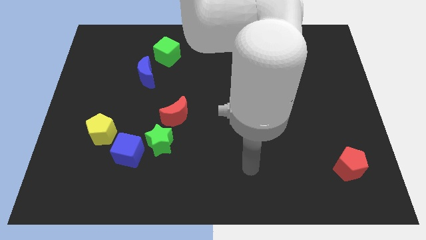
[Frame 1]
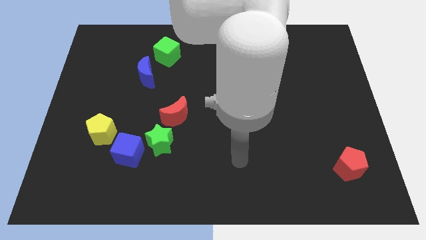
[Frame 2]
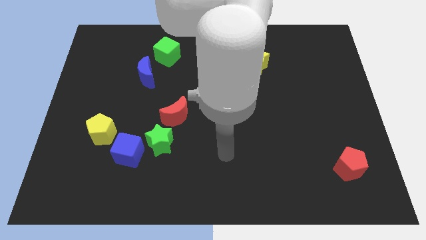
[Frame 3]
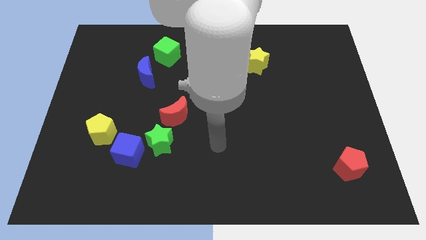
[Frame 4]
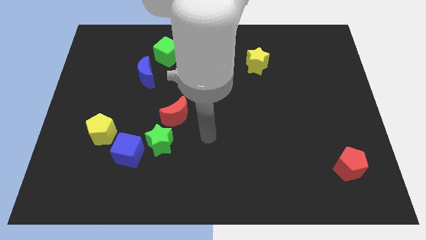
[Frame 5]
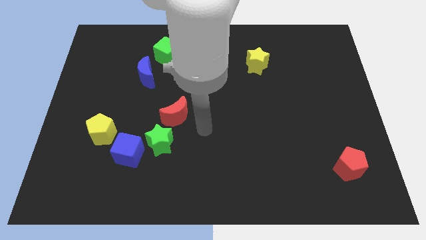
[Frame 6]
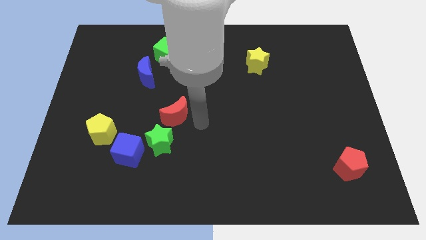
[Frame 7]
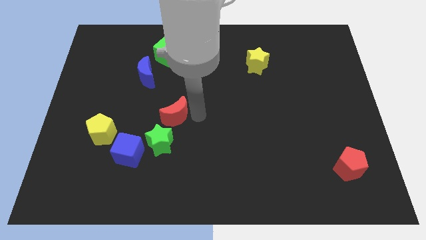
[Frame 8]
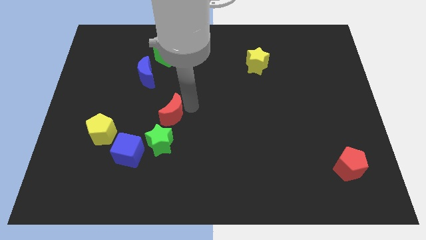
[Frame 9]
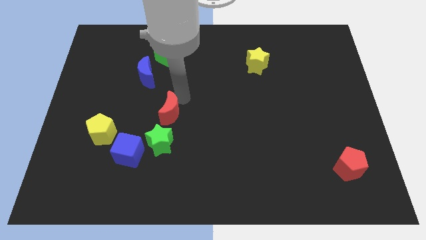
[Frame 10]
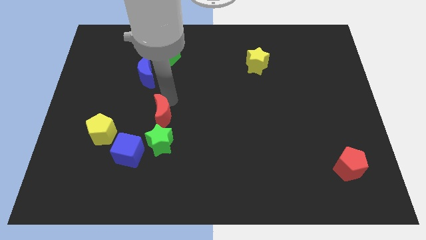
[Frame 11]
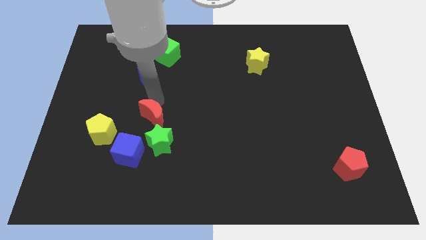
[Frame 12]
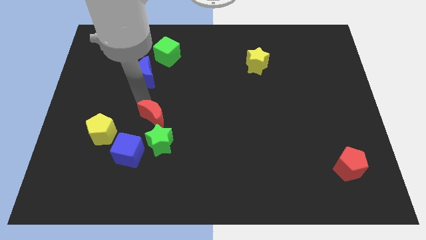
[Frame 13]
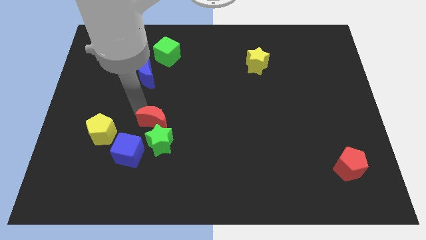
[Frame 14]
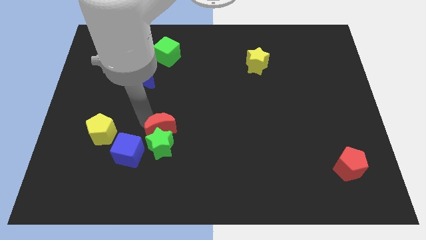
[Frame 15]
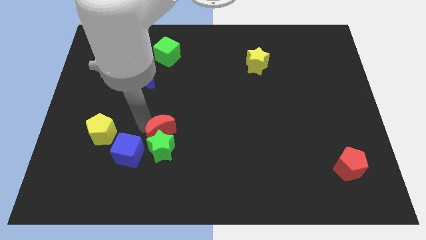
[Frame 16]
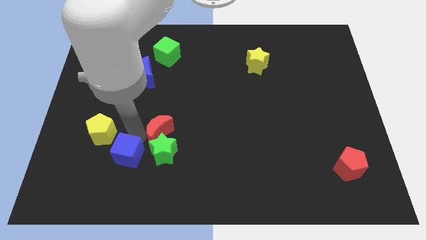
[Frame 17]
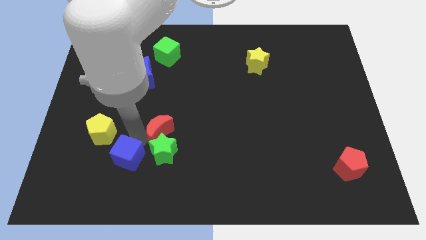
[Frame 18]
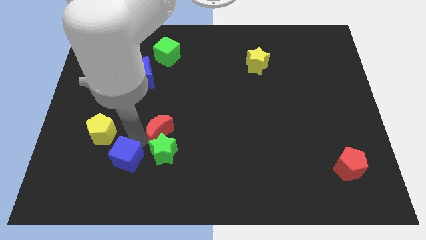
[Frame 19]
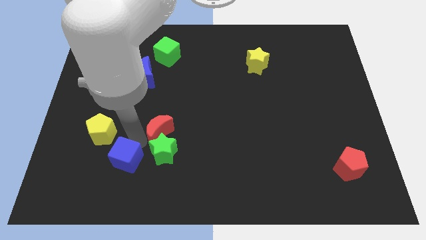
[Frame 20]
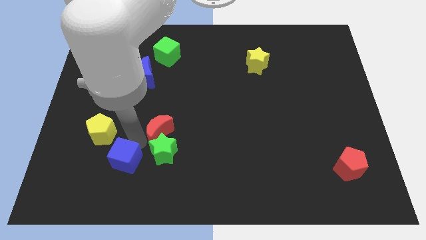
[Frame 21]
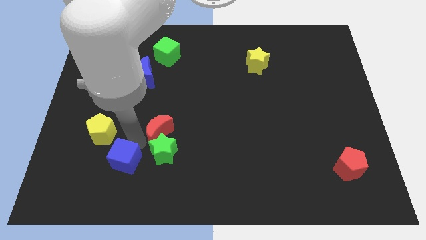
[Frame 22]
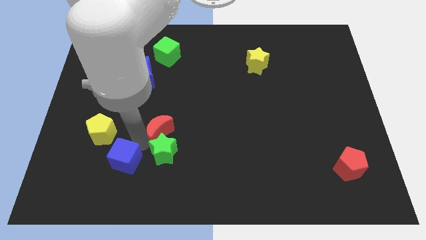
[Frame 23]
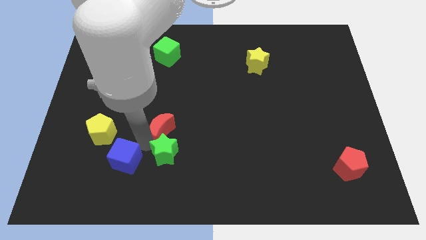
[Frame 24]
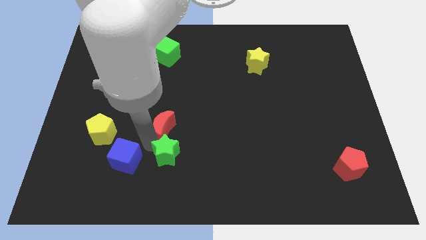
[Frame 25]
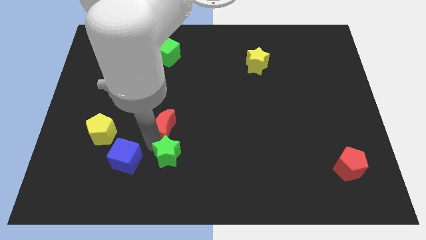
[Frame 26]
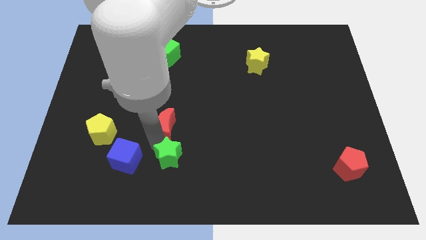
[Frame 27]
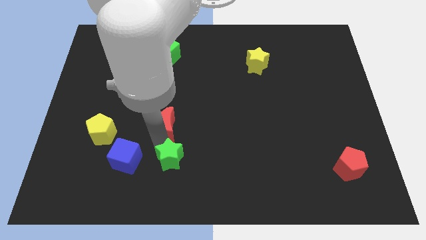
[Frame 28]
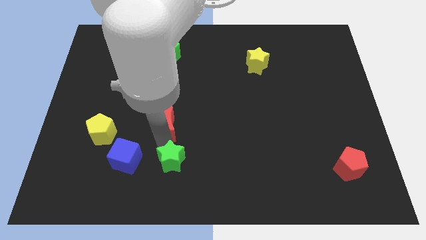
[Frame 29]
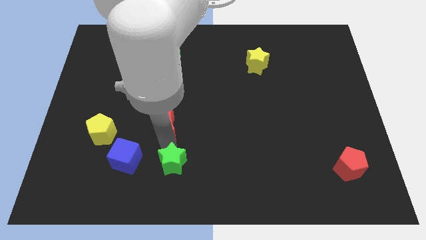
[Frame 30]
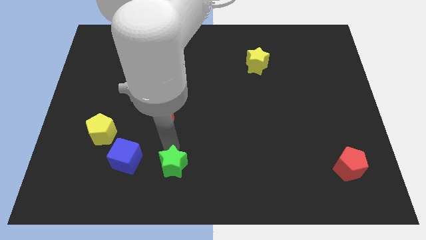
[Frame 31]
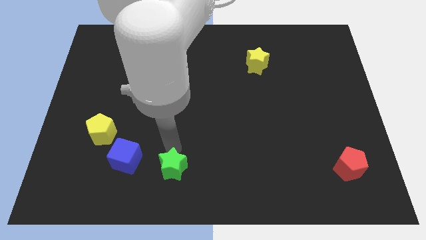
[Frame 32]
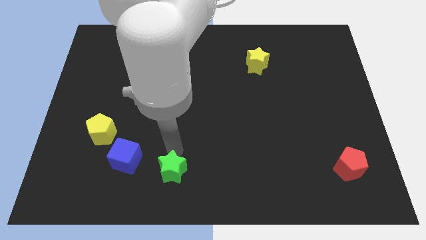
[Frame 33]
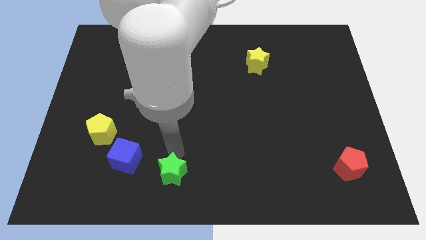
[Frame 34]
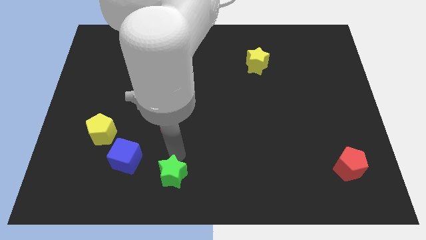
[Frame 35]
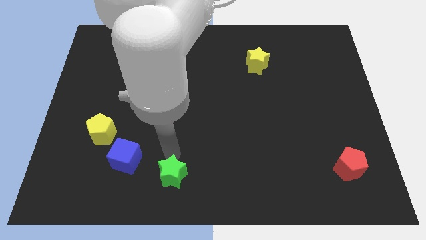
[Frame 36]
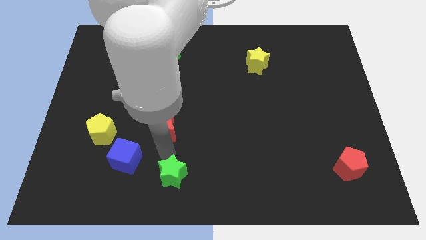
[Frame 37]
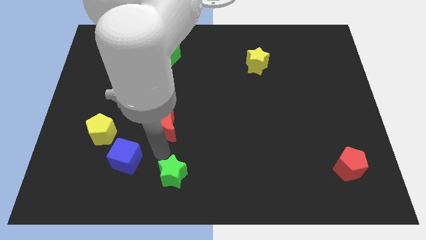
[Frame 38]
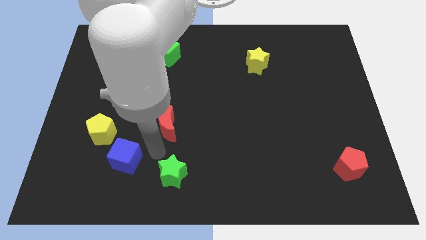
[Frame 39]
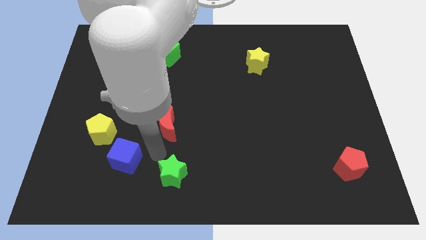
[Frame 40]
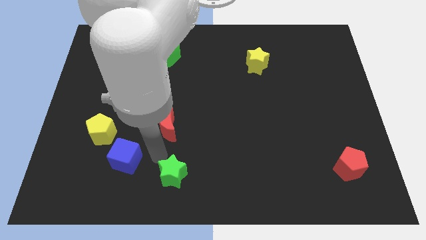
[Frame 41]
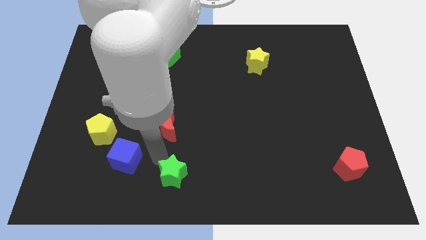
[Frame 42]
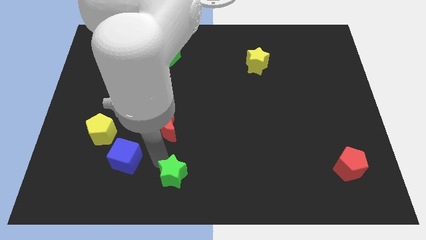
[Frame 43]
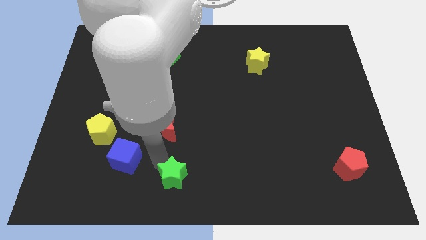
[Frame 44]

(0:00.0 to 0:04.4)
pull the green star apart from the blue cube and red moon

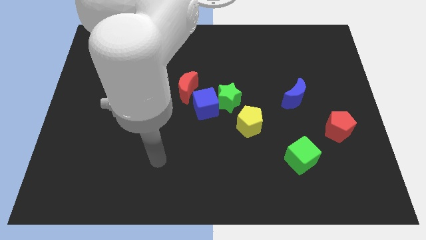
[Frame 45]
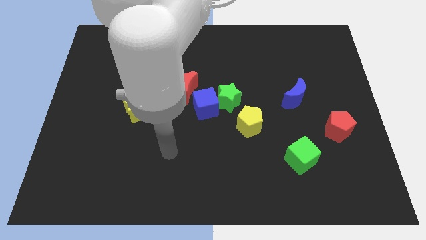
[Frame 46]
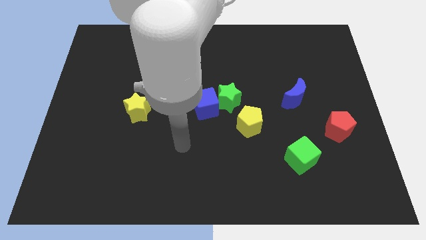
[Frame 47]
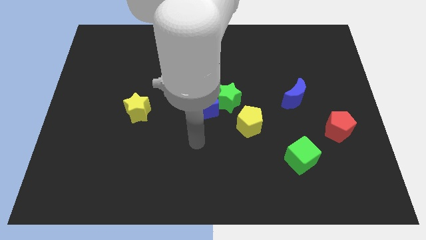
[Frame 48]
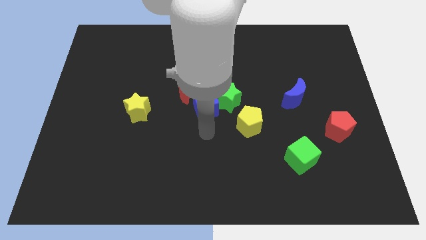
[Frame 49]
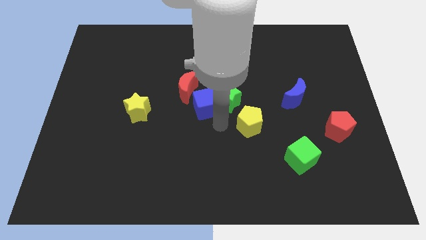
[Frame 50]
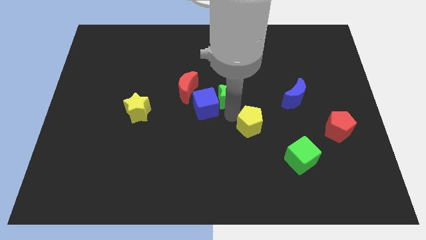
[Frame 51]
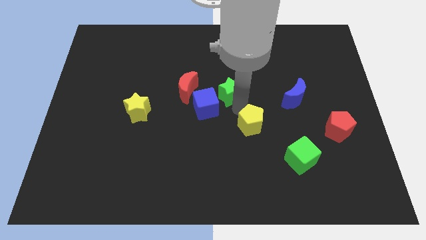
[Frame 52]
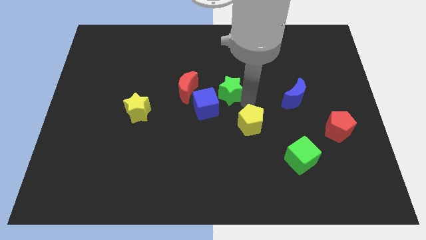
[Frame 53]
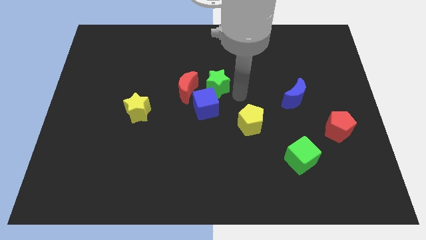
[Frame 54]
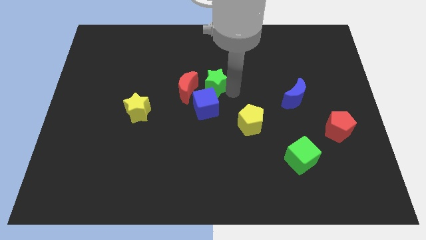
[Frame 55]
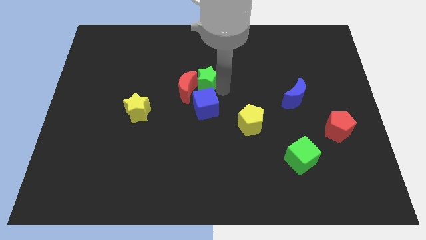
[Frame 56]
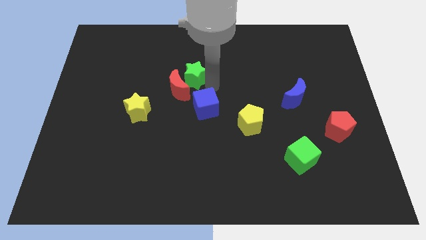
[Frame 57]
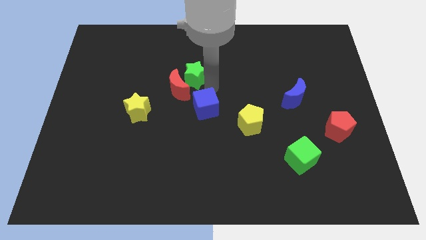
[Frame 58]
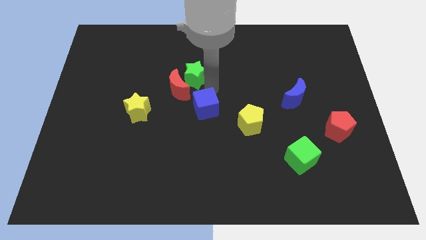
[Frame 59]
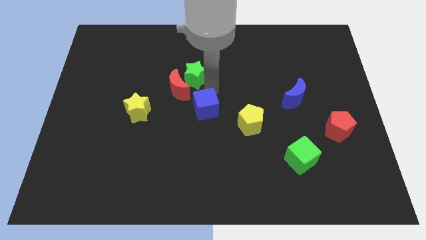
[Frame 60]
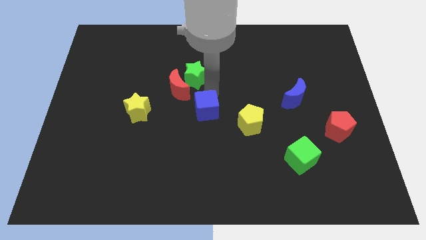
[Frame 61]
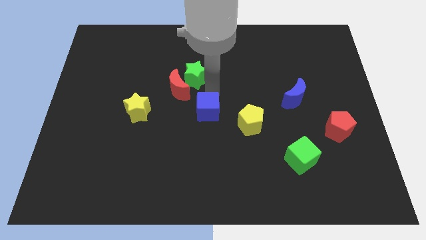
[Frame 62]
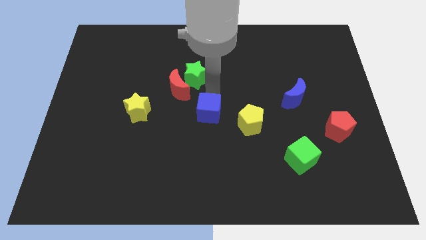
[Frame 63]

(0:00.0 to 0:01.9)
separate the blue cube from the green star and red moon

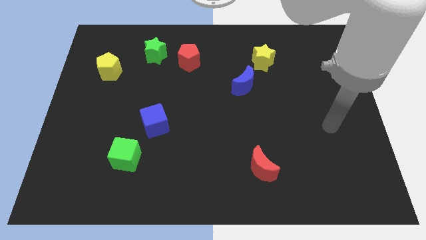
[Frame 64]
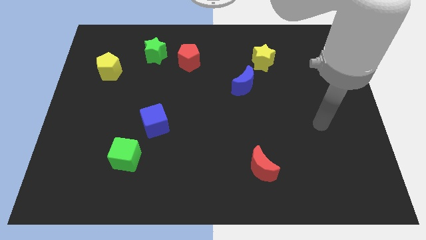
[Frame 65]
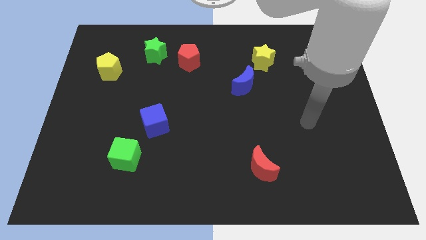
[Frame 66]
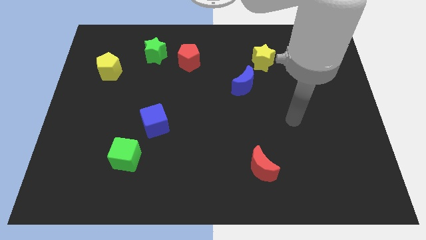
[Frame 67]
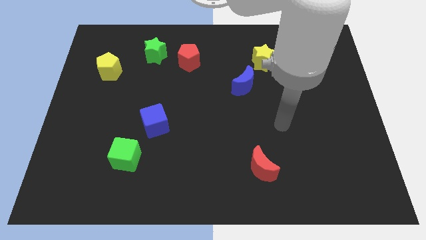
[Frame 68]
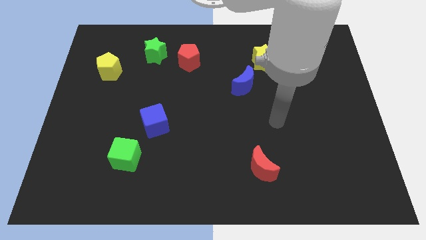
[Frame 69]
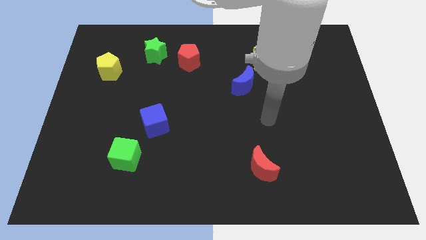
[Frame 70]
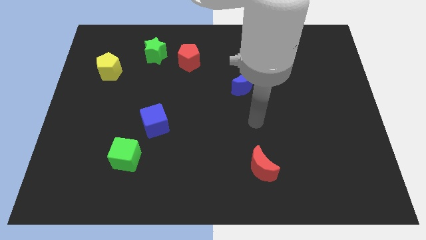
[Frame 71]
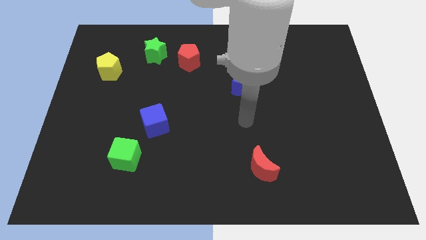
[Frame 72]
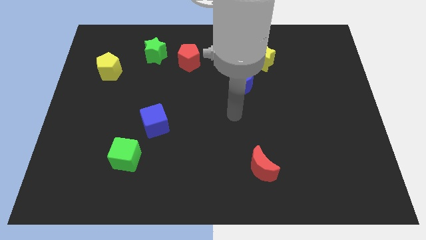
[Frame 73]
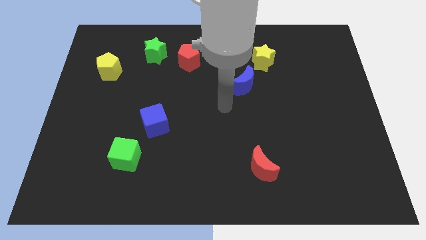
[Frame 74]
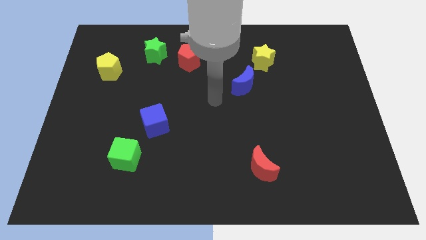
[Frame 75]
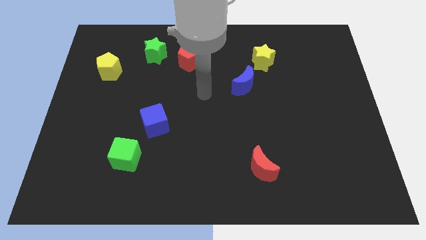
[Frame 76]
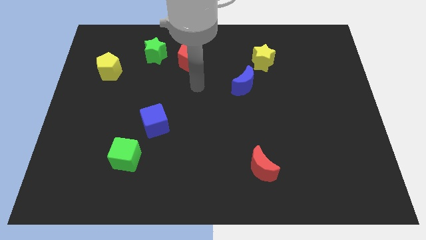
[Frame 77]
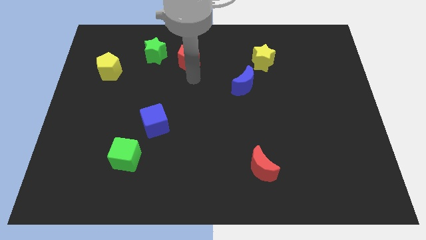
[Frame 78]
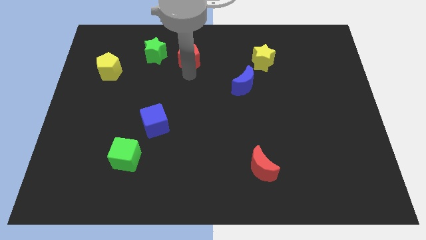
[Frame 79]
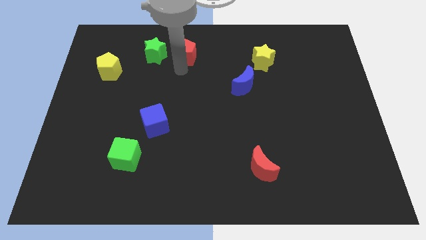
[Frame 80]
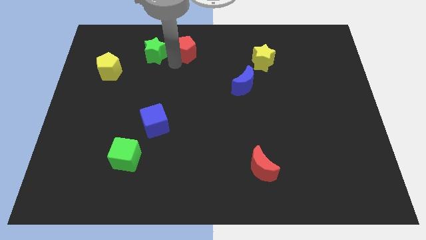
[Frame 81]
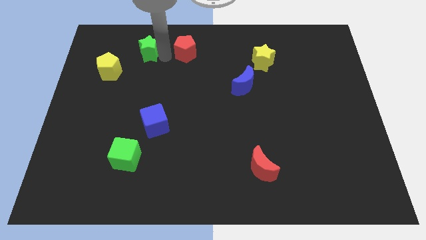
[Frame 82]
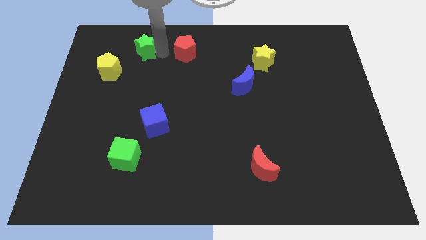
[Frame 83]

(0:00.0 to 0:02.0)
pull the red pentagon apart from the green star

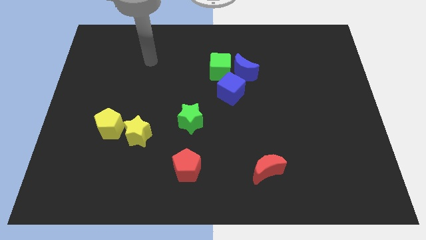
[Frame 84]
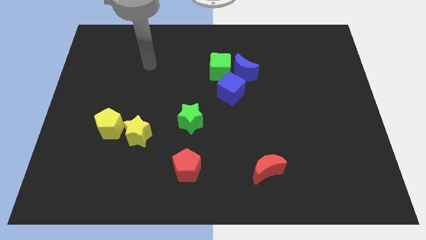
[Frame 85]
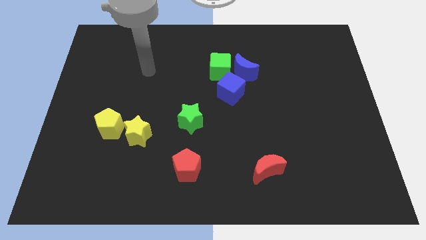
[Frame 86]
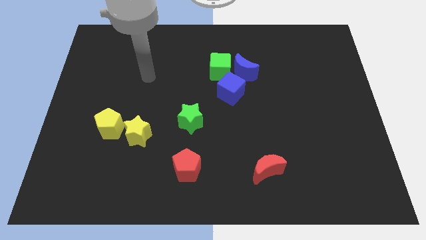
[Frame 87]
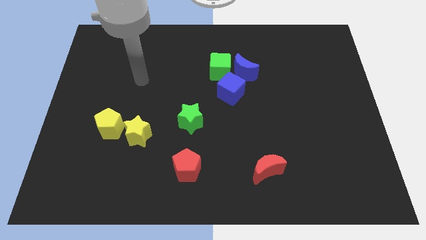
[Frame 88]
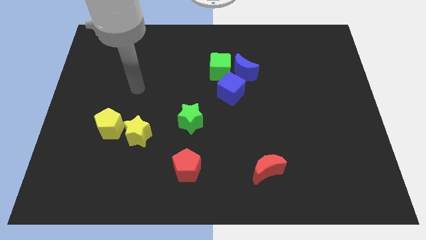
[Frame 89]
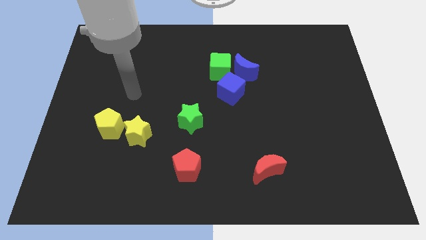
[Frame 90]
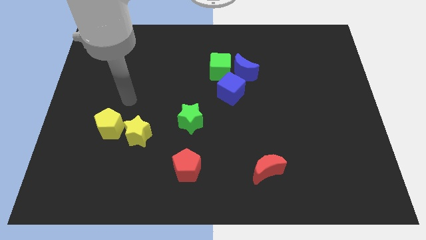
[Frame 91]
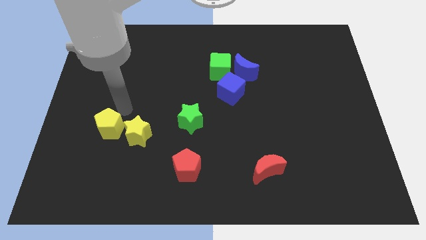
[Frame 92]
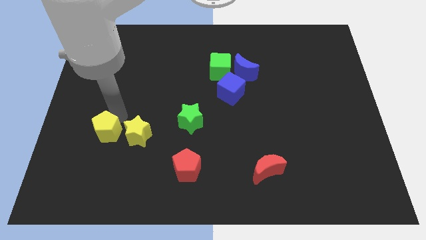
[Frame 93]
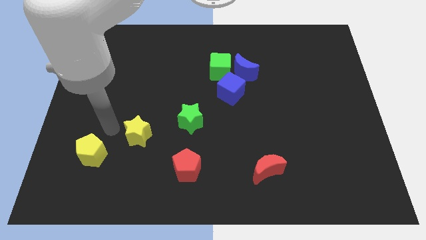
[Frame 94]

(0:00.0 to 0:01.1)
separate the yellow star from the yellow pentagon
